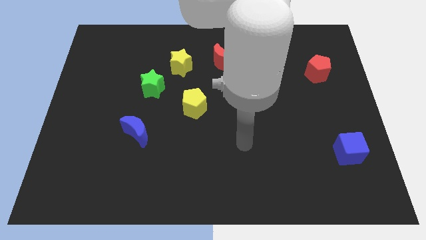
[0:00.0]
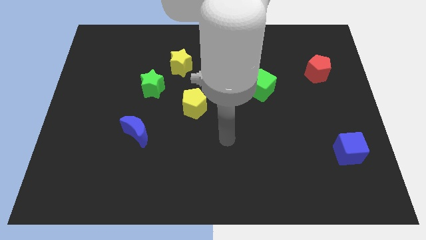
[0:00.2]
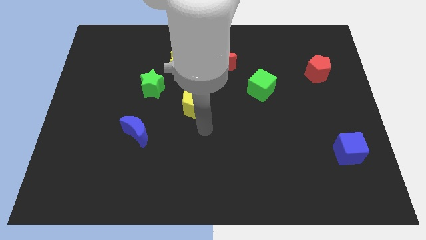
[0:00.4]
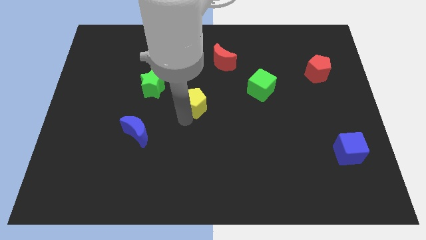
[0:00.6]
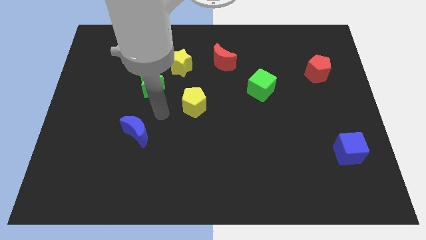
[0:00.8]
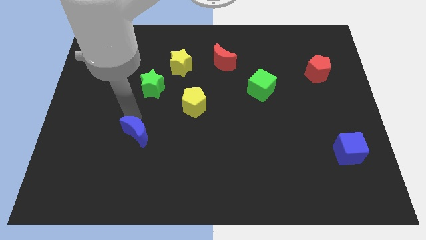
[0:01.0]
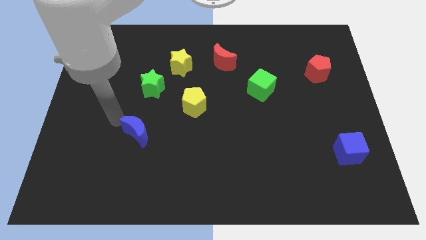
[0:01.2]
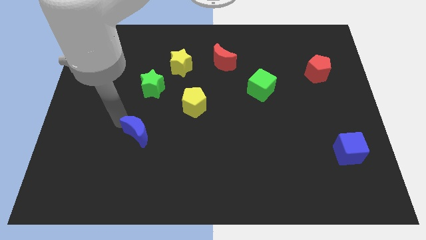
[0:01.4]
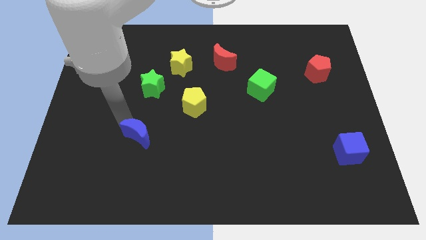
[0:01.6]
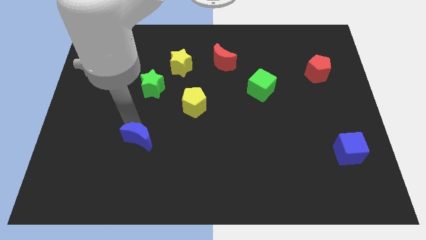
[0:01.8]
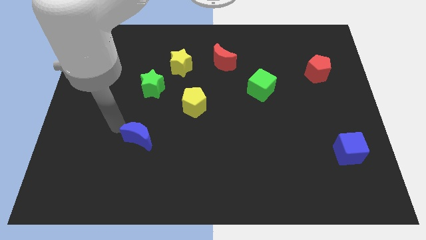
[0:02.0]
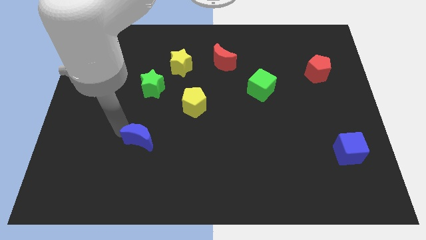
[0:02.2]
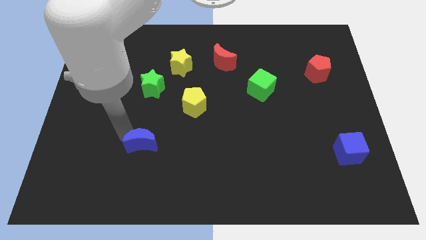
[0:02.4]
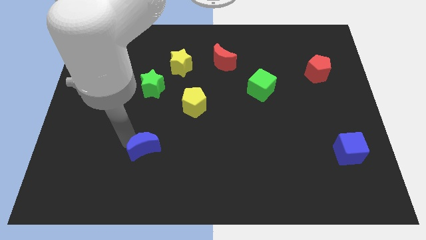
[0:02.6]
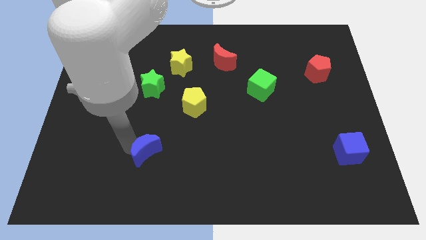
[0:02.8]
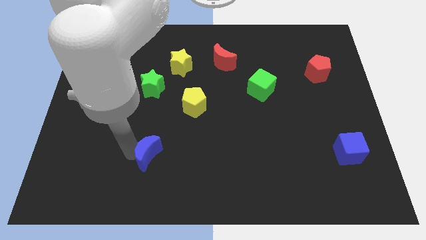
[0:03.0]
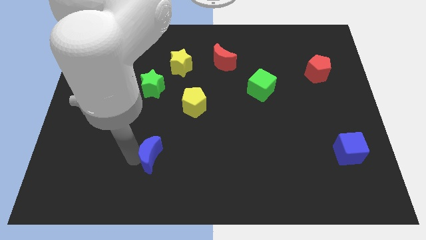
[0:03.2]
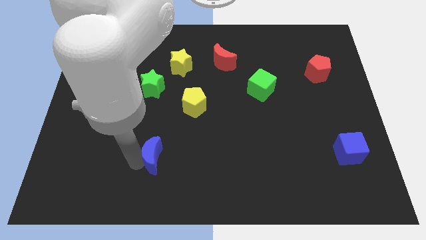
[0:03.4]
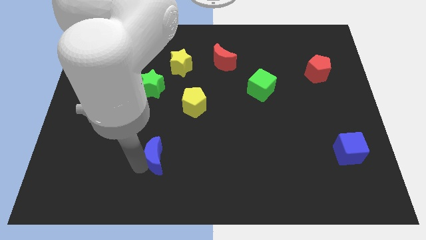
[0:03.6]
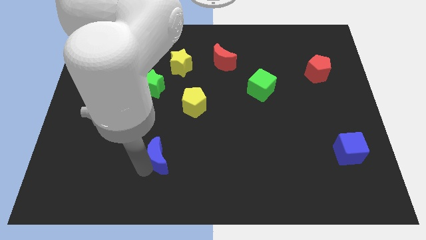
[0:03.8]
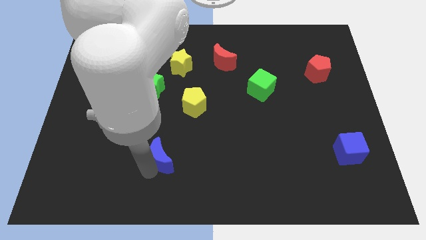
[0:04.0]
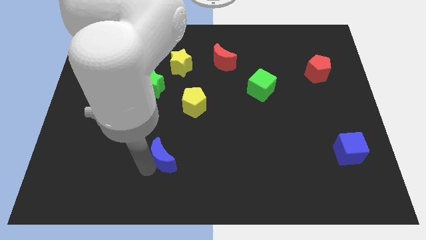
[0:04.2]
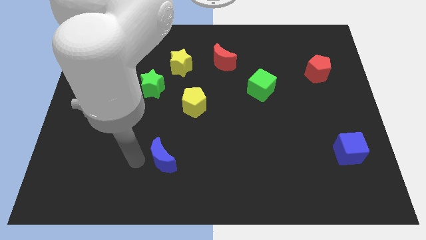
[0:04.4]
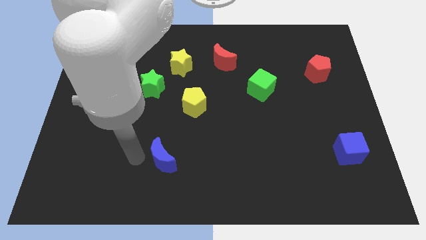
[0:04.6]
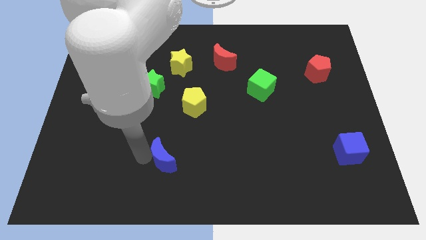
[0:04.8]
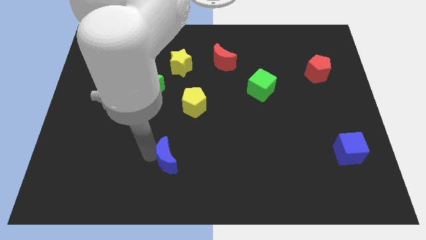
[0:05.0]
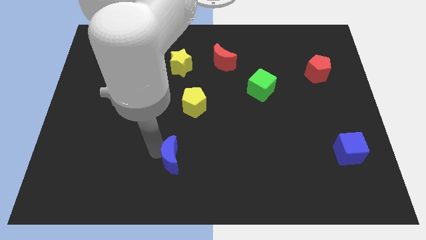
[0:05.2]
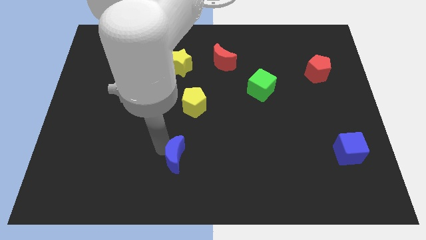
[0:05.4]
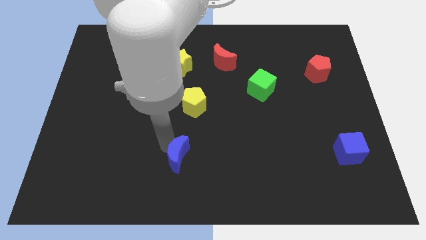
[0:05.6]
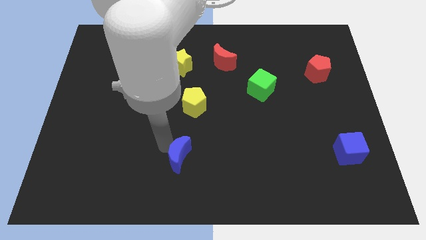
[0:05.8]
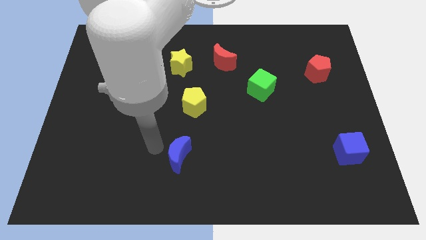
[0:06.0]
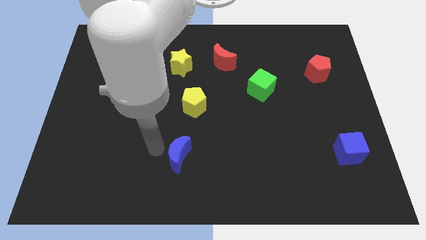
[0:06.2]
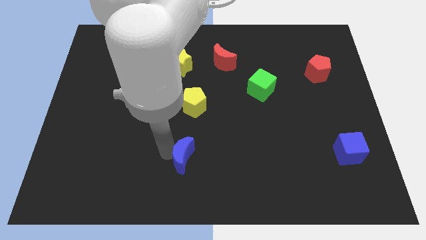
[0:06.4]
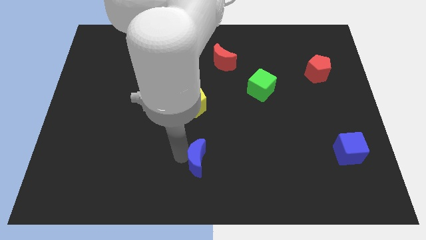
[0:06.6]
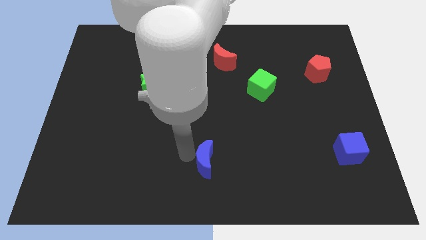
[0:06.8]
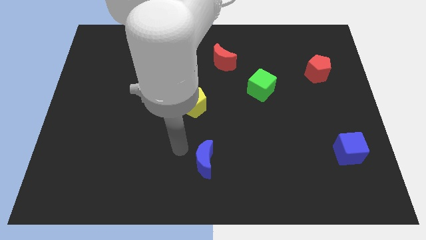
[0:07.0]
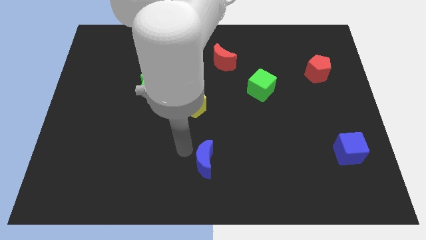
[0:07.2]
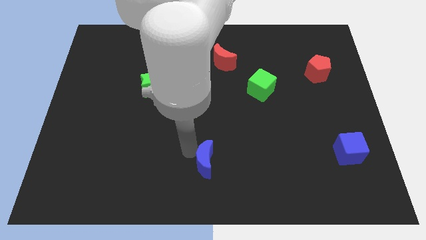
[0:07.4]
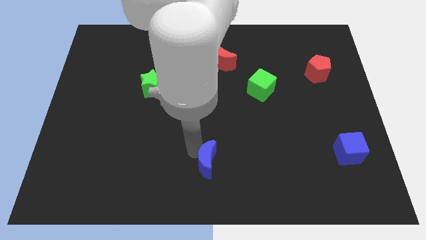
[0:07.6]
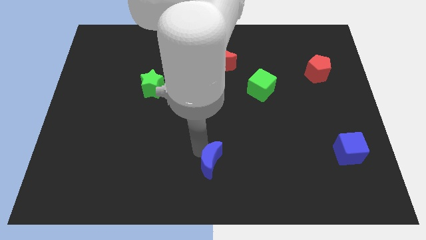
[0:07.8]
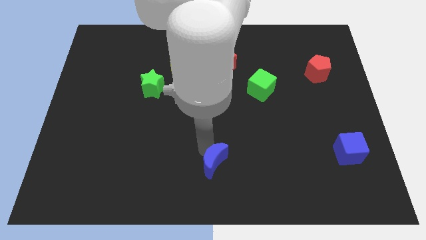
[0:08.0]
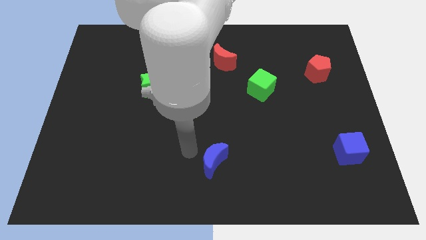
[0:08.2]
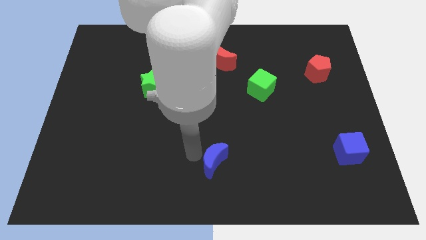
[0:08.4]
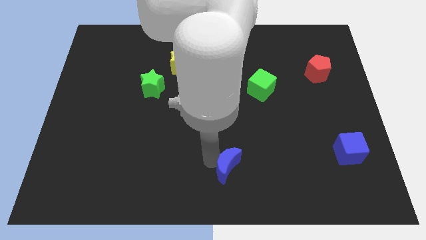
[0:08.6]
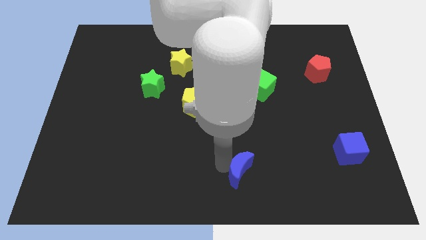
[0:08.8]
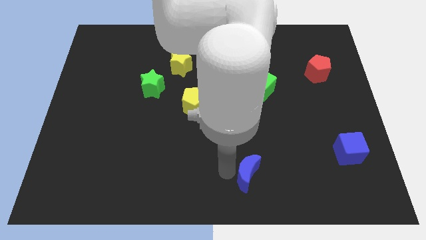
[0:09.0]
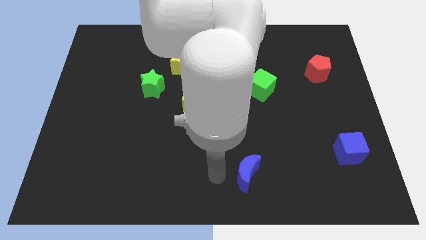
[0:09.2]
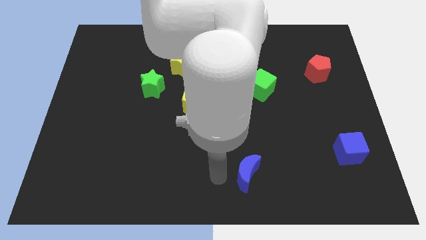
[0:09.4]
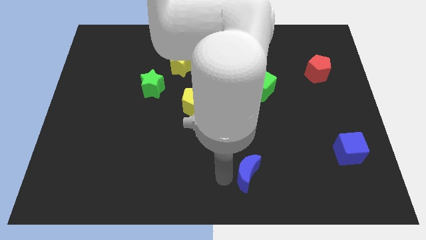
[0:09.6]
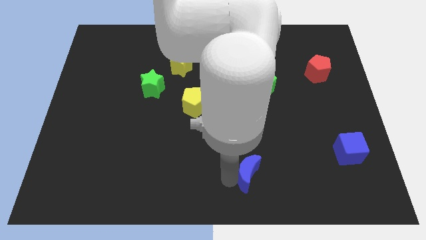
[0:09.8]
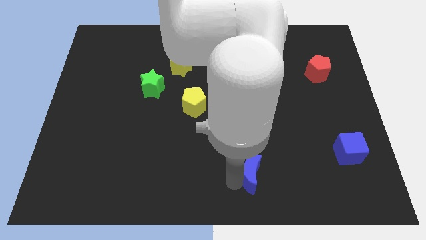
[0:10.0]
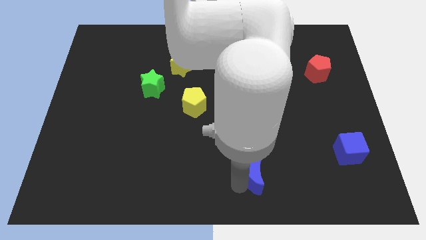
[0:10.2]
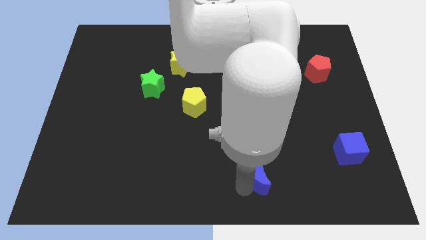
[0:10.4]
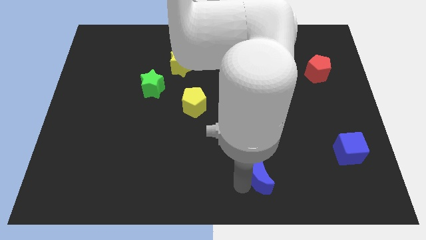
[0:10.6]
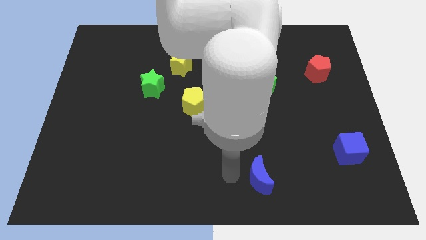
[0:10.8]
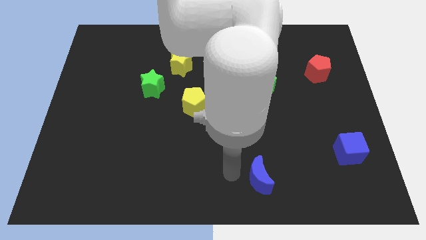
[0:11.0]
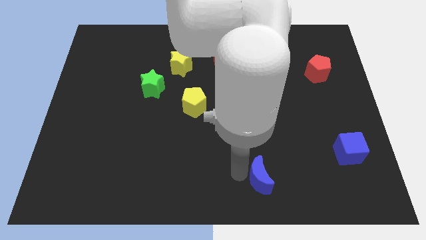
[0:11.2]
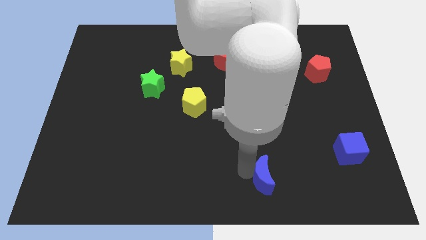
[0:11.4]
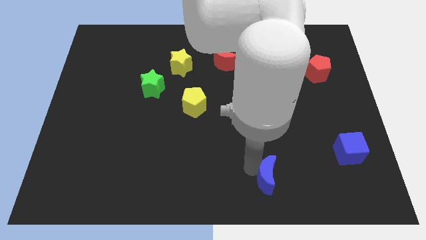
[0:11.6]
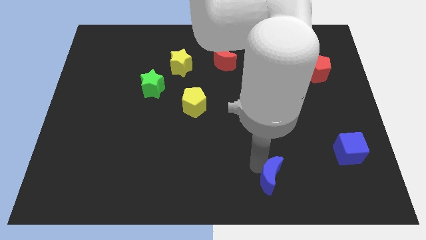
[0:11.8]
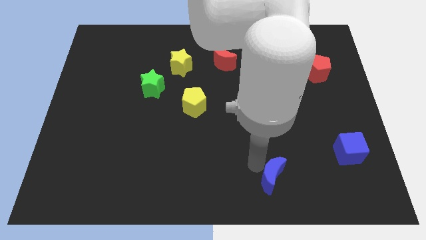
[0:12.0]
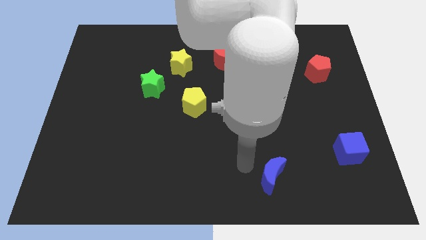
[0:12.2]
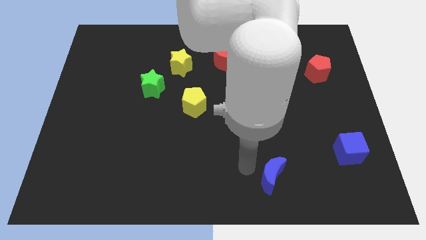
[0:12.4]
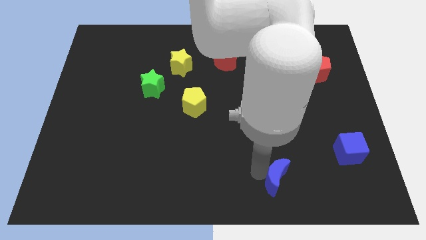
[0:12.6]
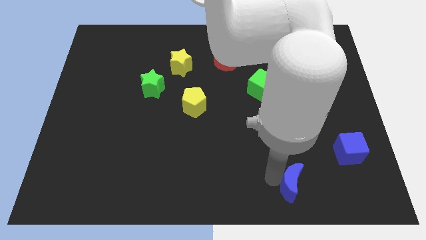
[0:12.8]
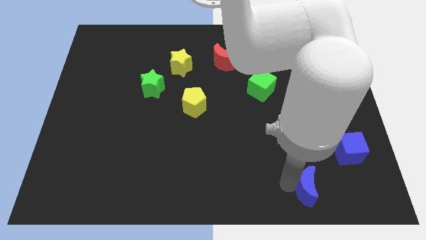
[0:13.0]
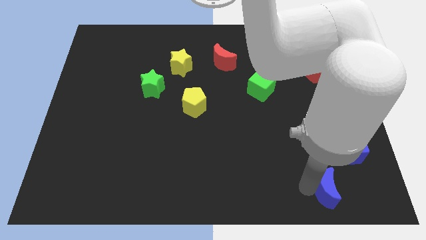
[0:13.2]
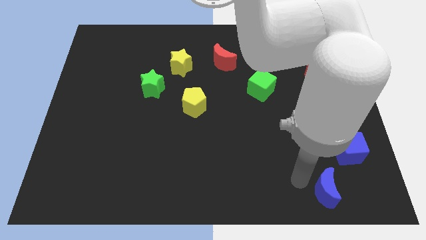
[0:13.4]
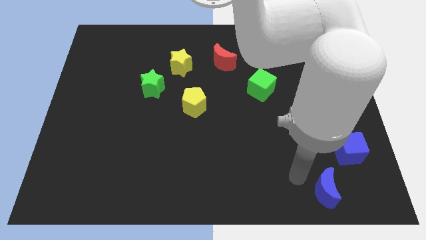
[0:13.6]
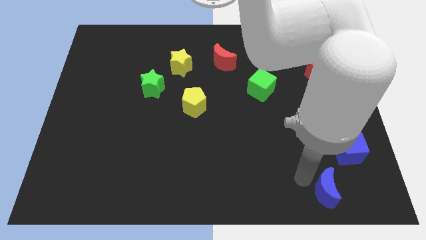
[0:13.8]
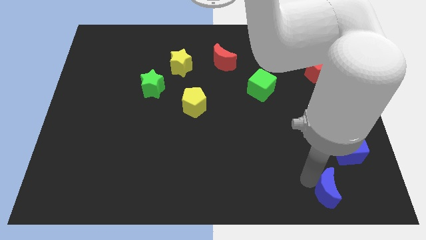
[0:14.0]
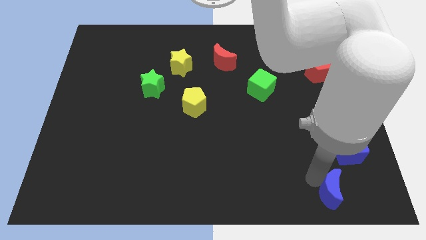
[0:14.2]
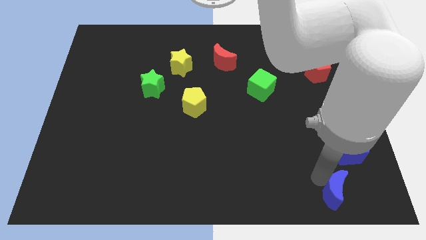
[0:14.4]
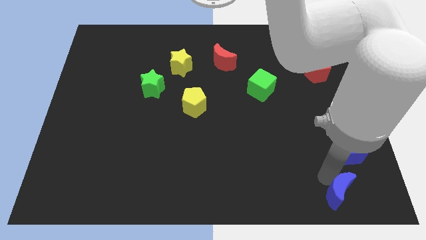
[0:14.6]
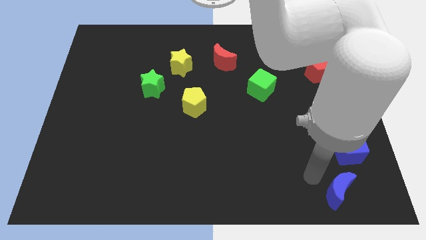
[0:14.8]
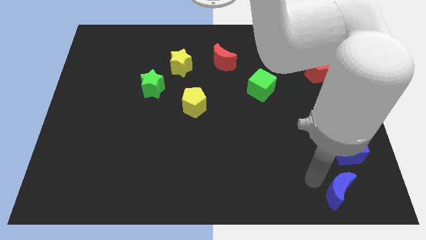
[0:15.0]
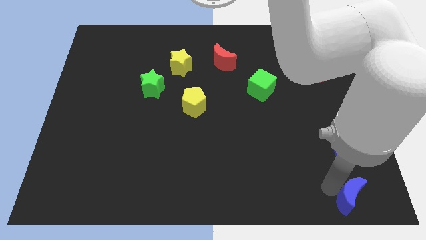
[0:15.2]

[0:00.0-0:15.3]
push the blue moon to the bottom right corner
